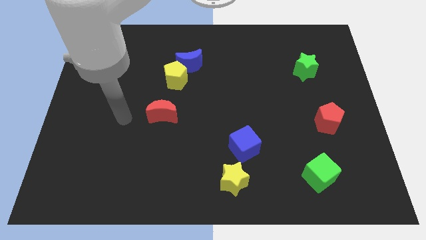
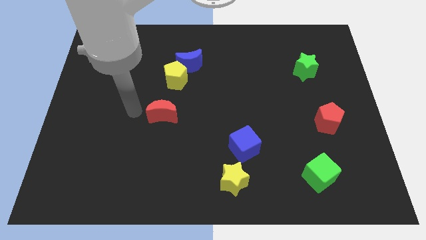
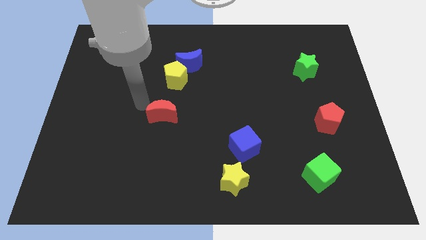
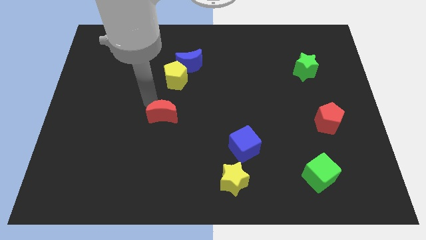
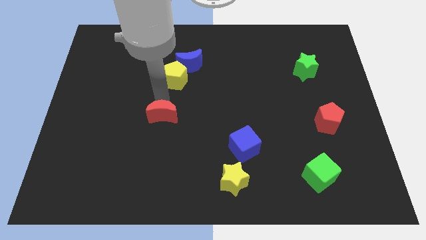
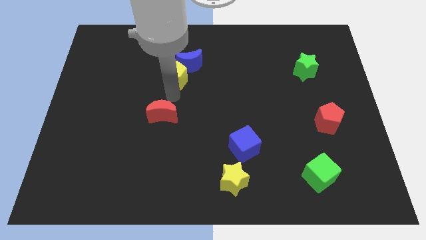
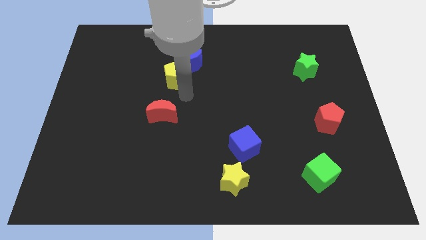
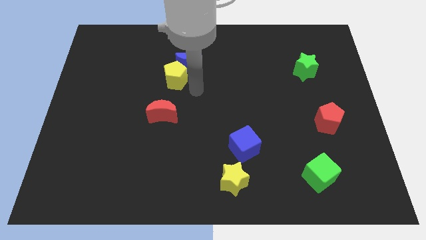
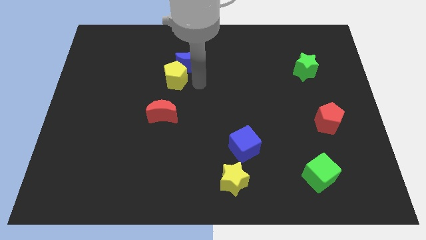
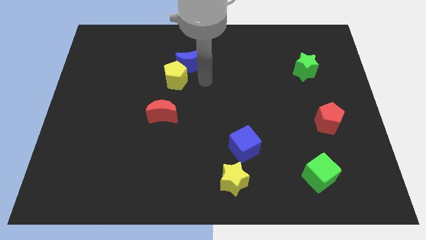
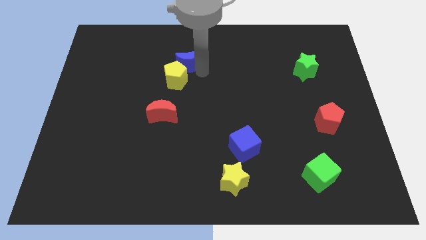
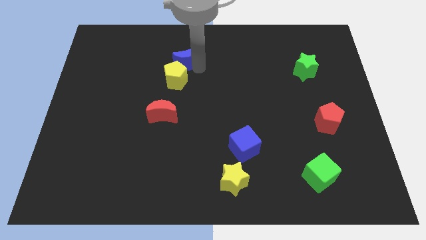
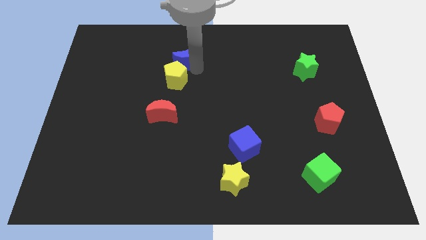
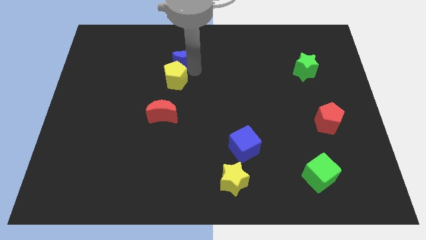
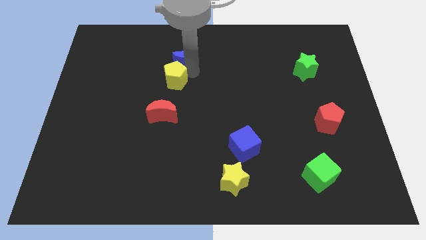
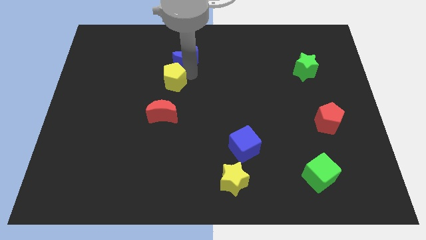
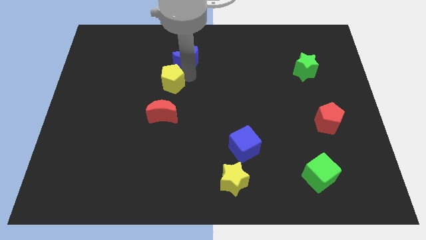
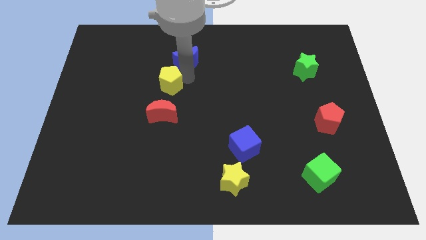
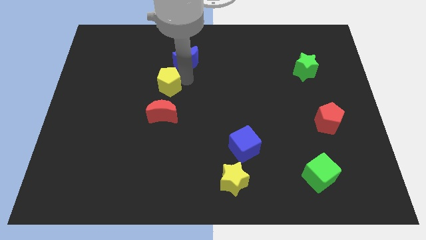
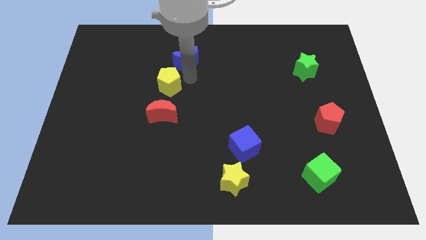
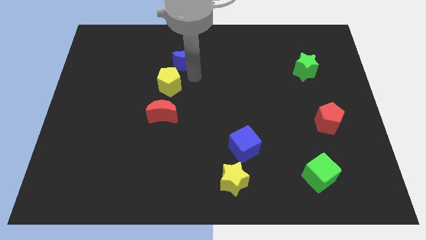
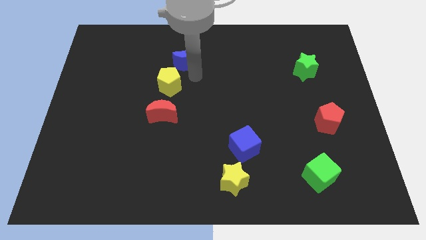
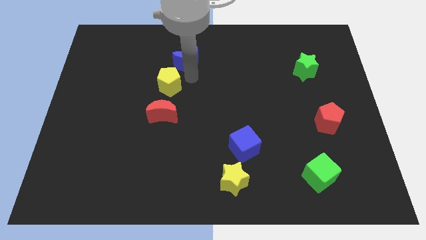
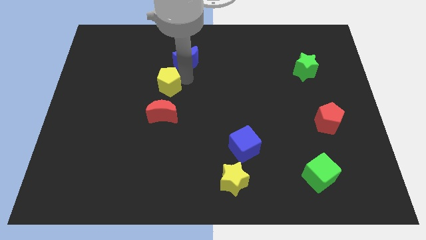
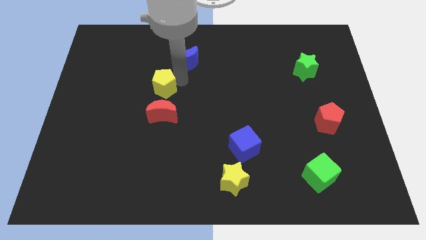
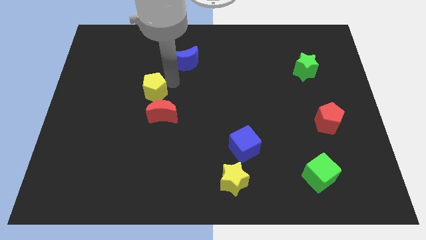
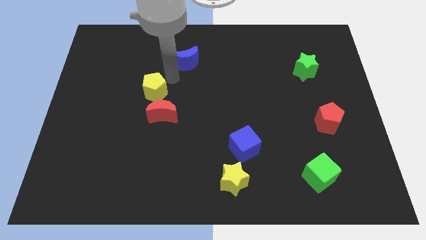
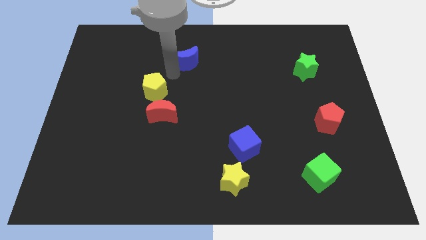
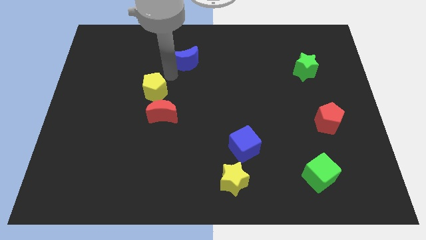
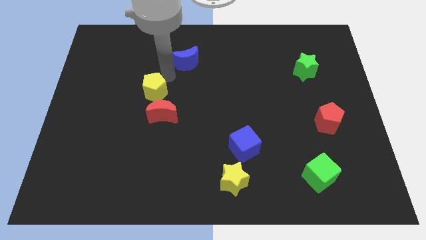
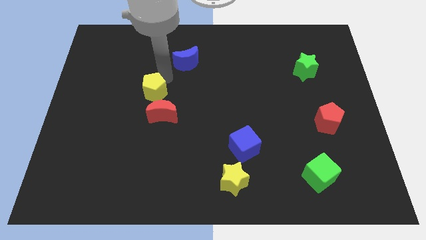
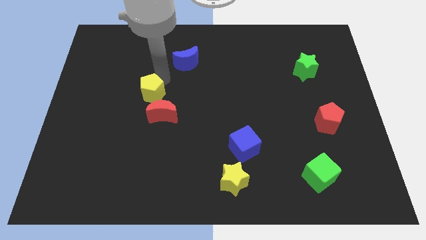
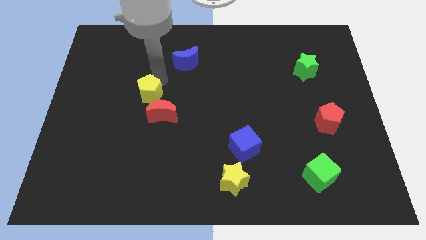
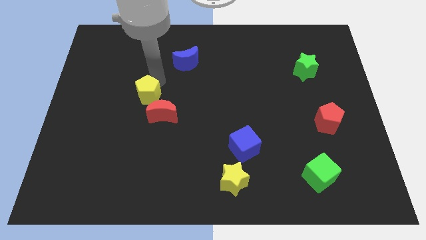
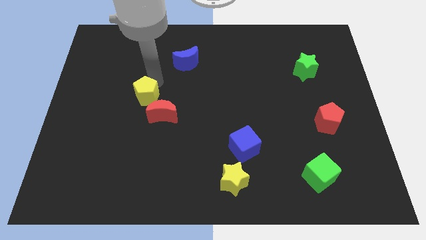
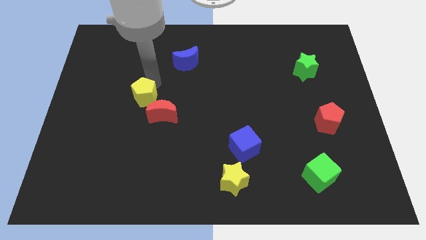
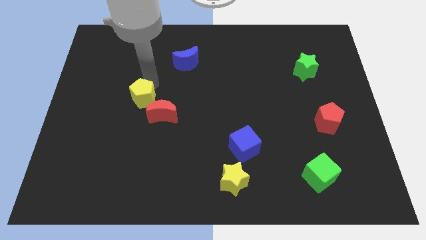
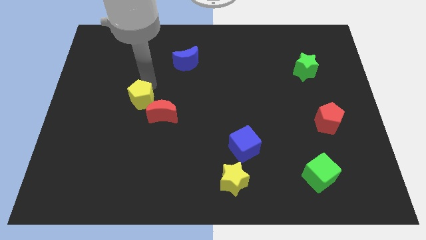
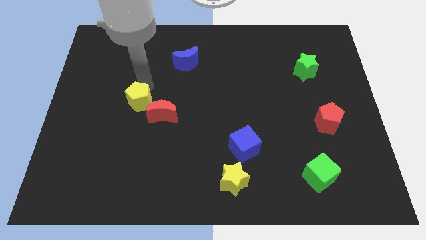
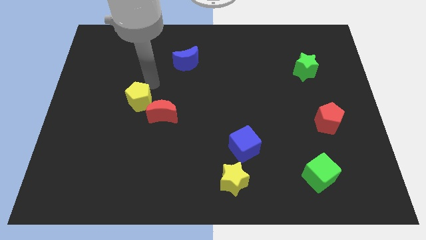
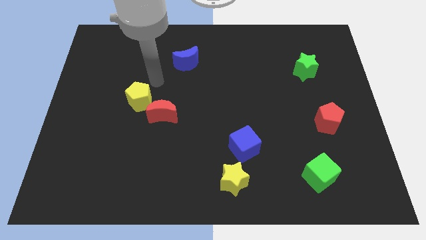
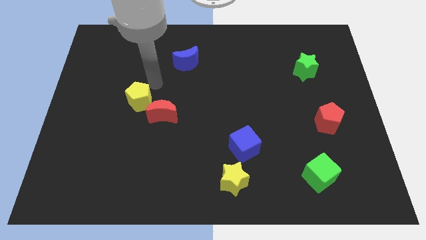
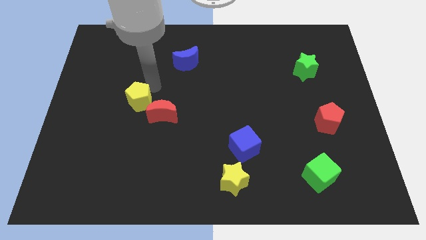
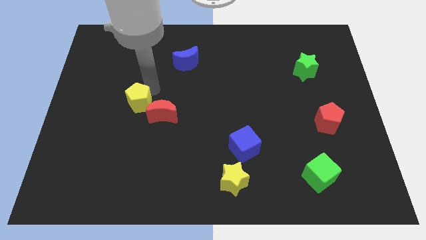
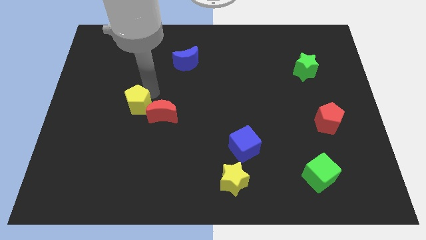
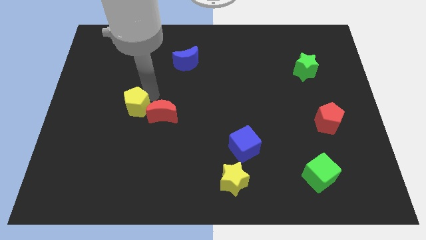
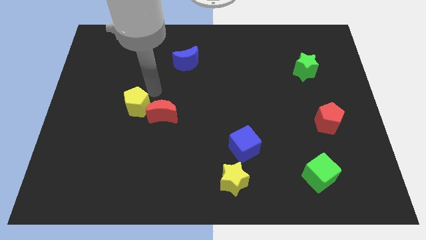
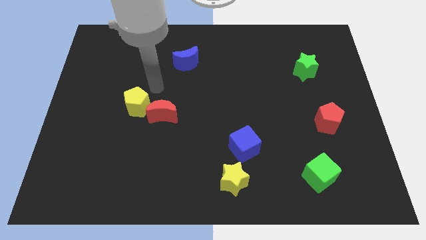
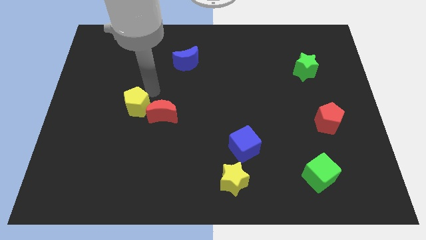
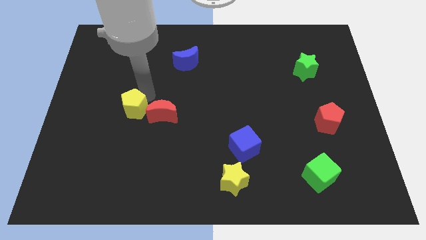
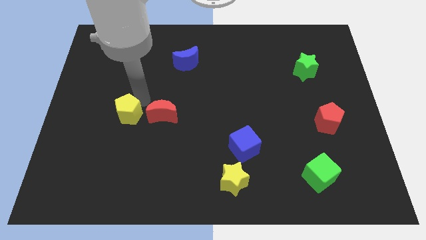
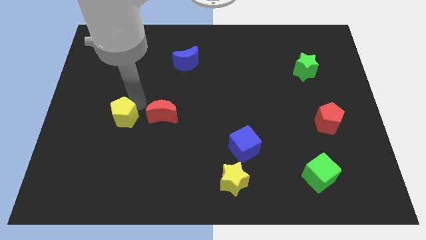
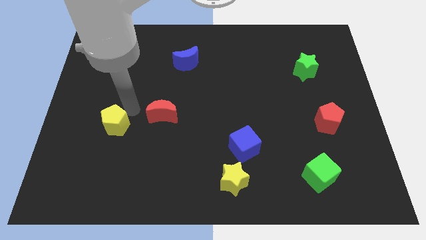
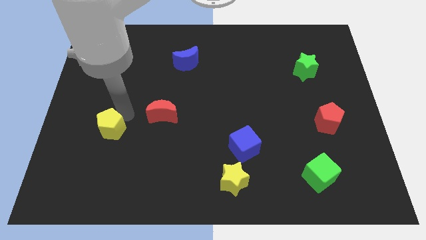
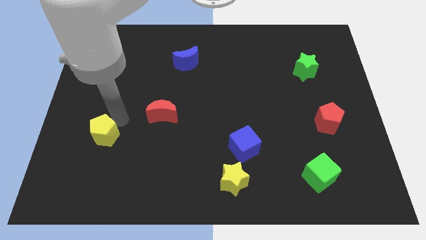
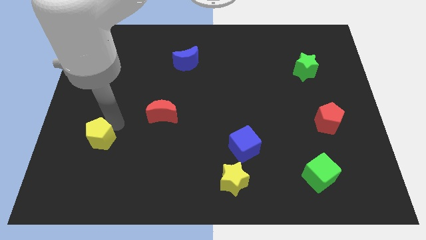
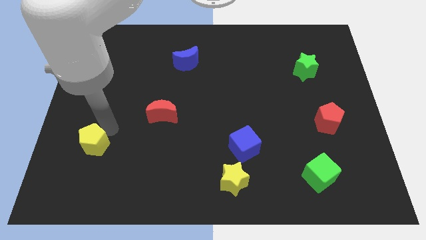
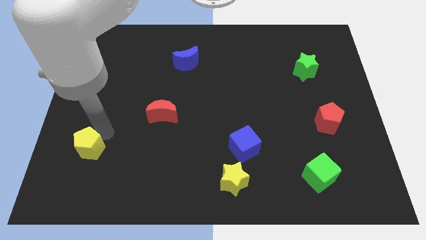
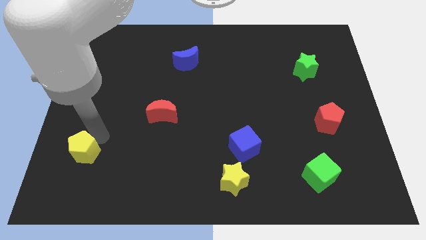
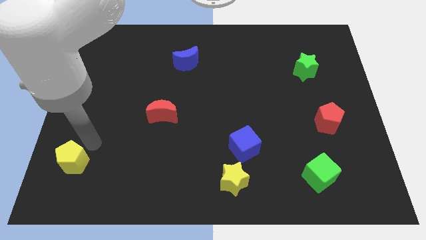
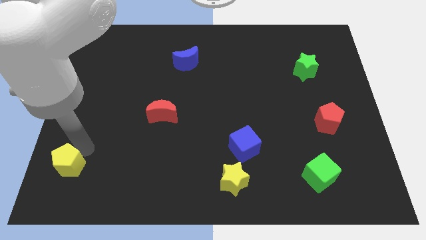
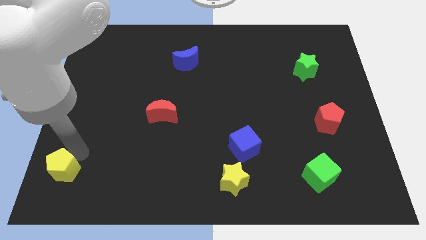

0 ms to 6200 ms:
push the yellow pentagon to the lower left corner

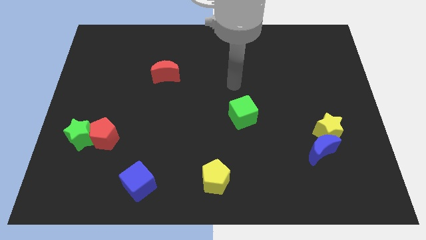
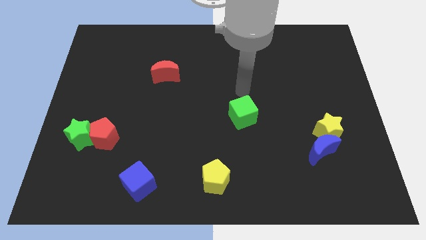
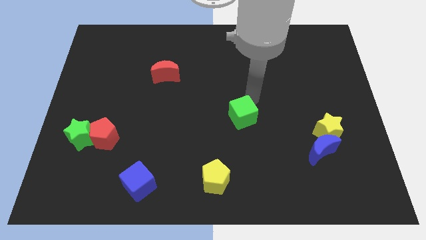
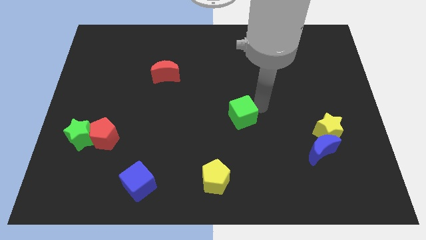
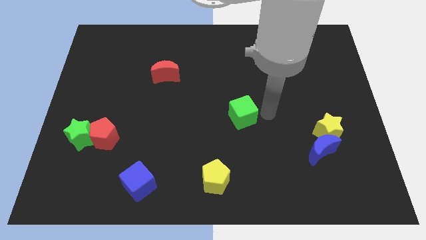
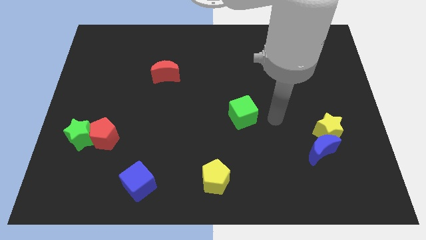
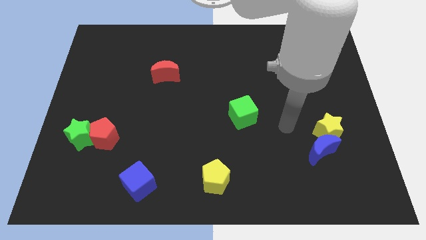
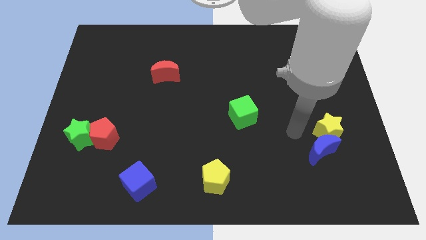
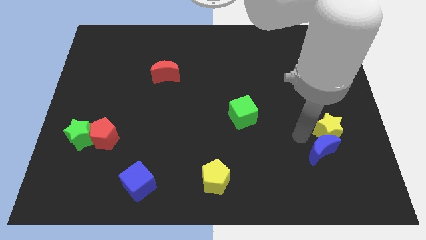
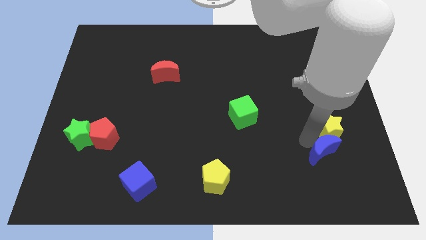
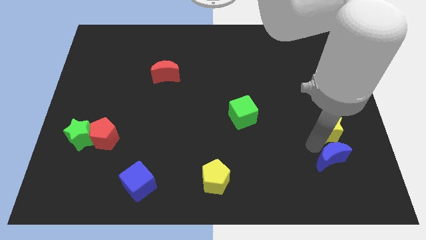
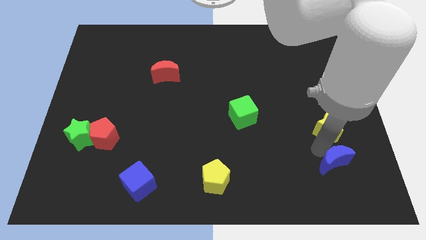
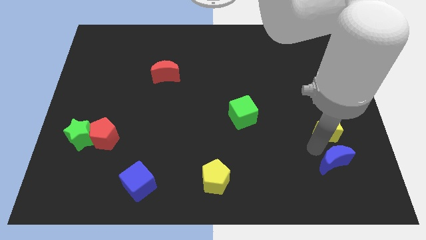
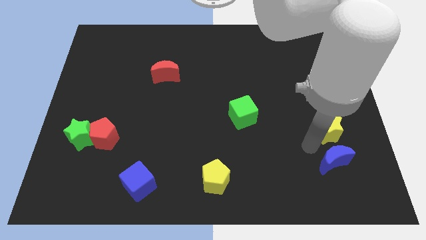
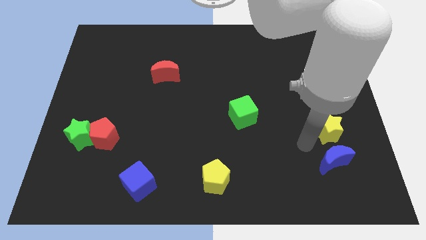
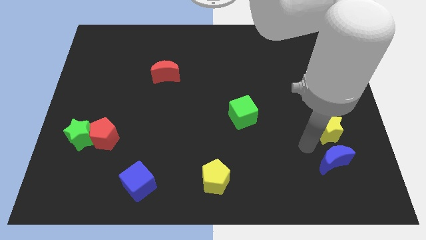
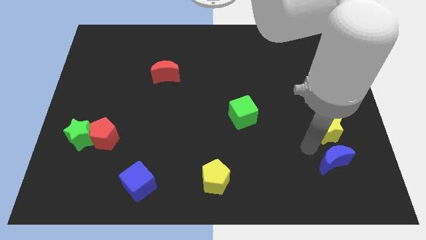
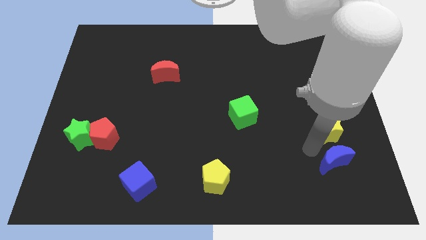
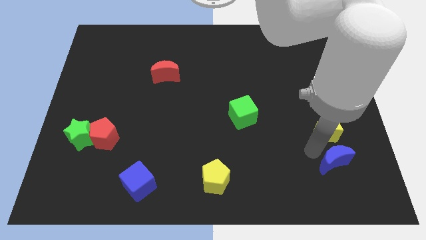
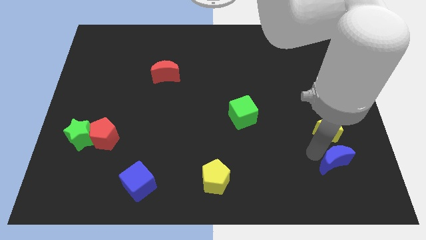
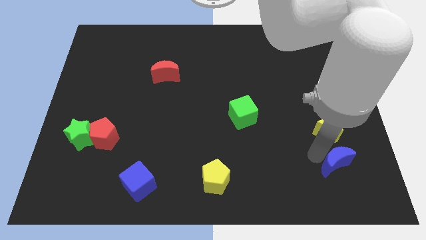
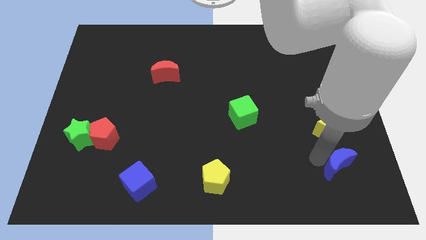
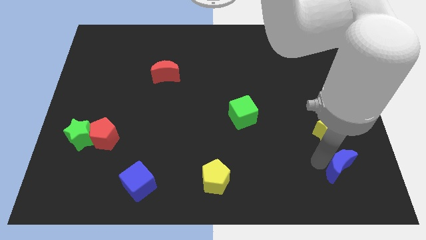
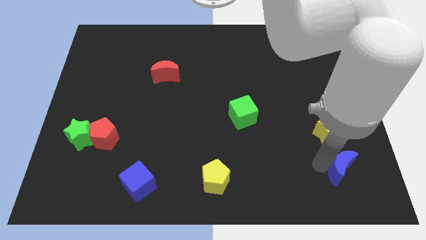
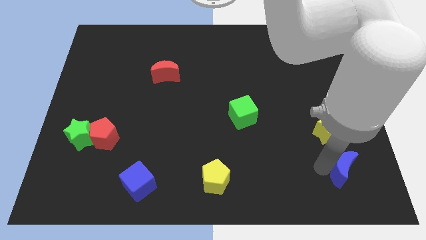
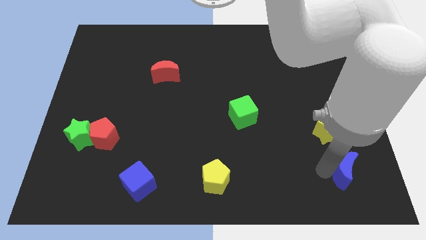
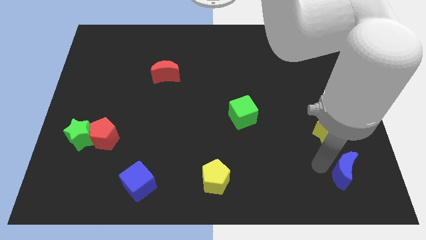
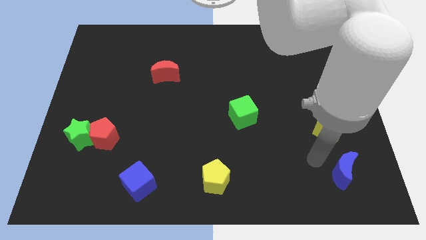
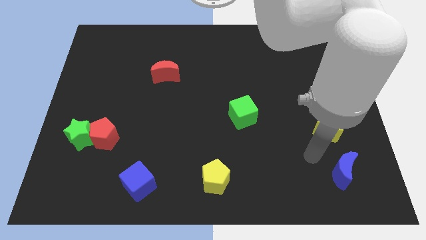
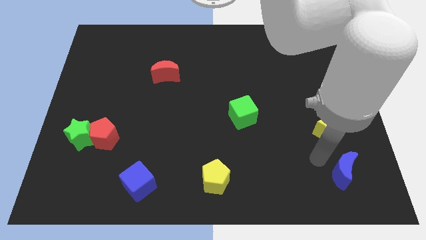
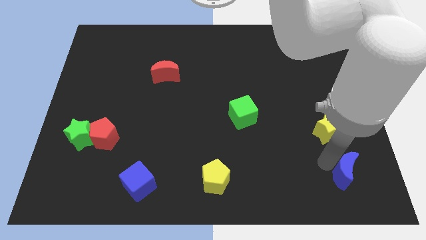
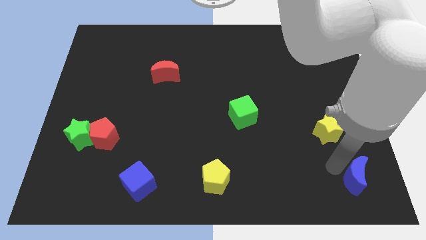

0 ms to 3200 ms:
put the blue moon to the bottom right corner
